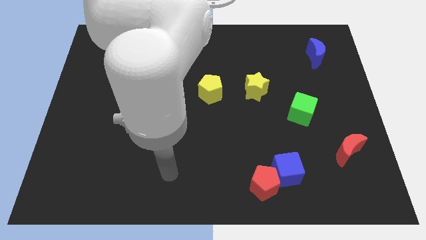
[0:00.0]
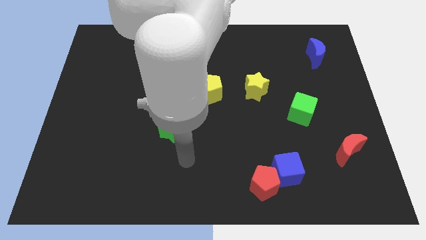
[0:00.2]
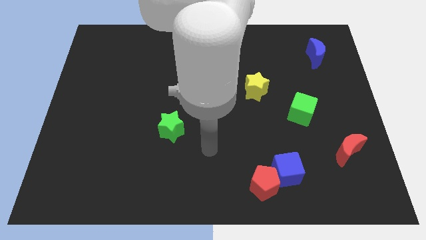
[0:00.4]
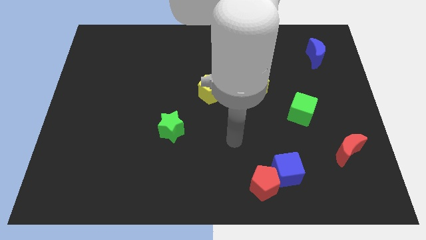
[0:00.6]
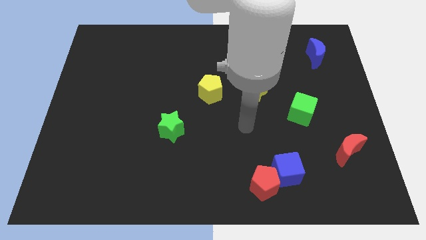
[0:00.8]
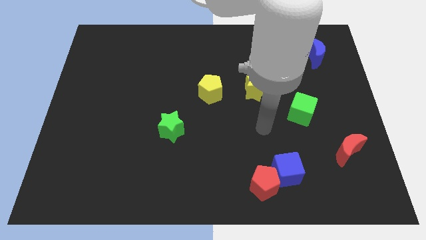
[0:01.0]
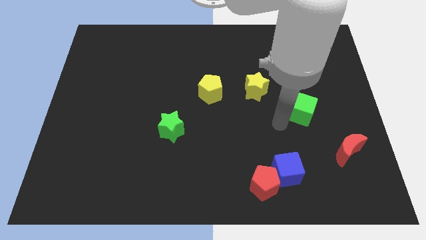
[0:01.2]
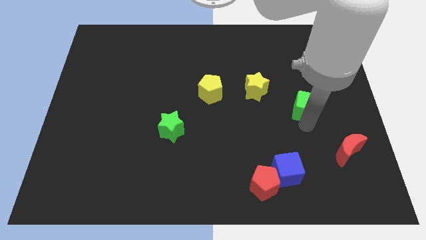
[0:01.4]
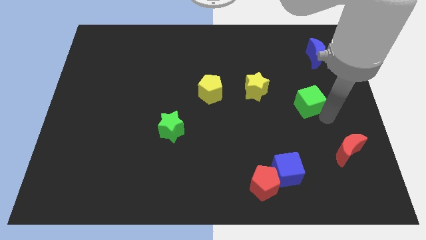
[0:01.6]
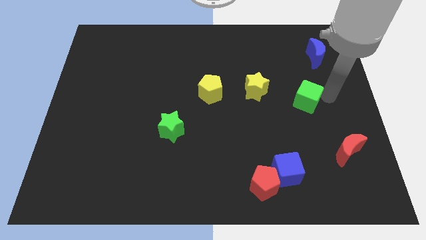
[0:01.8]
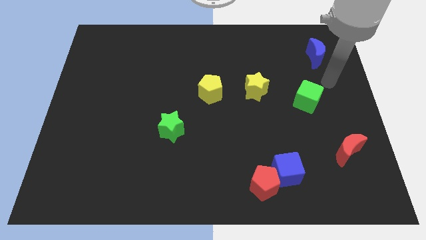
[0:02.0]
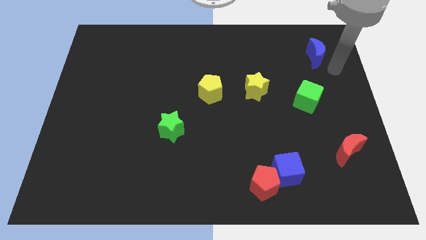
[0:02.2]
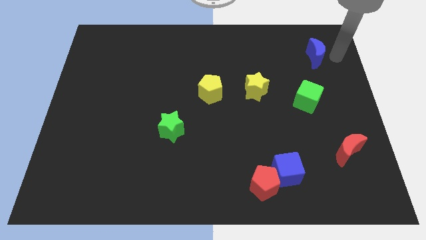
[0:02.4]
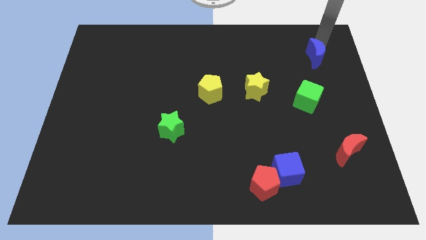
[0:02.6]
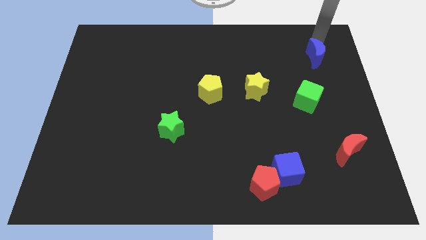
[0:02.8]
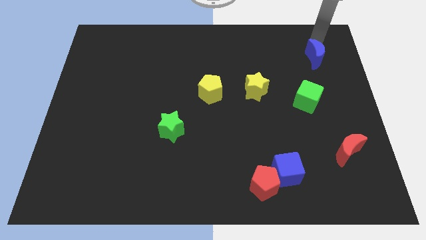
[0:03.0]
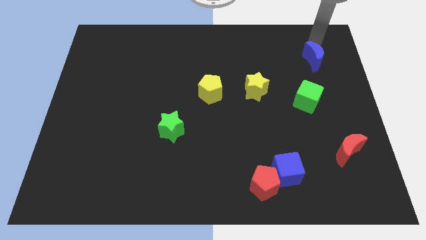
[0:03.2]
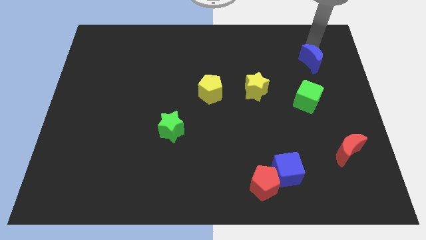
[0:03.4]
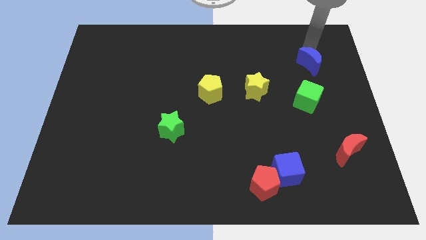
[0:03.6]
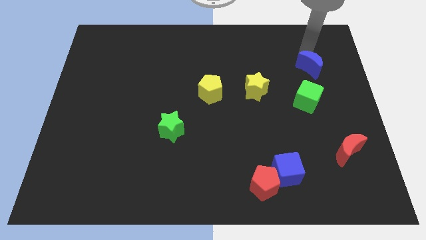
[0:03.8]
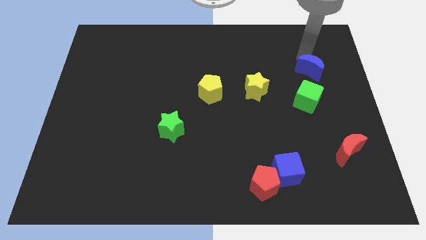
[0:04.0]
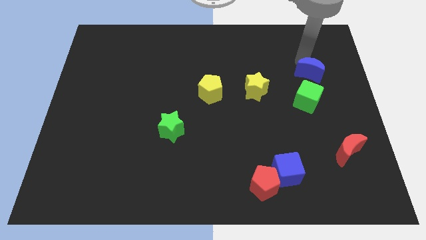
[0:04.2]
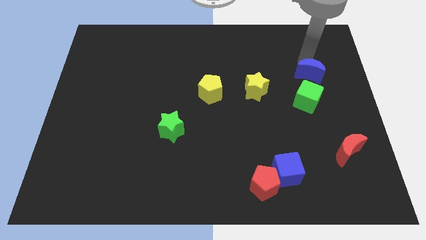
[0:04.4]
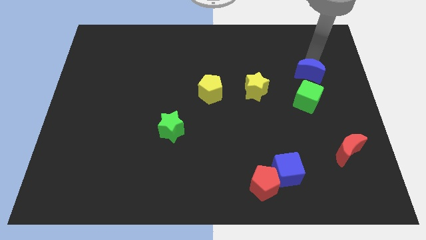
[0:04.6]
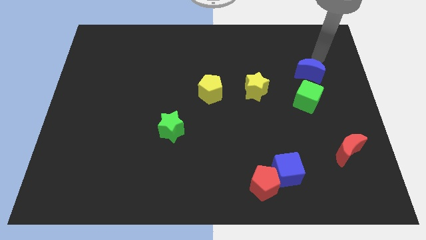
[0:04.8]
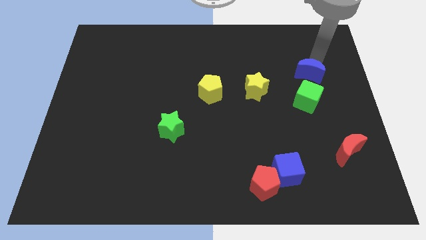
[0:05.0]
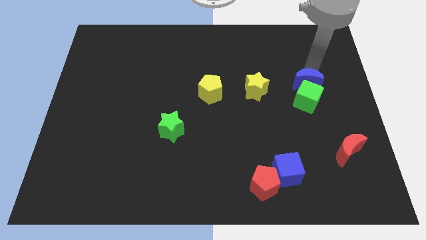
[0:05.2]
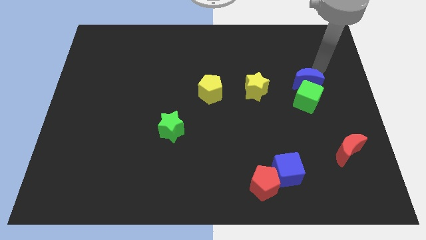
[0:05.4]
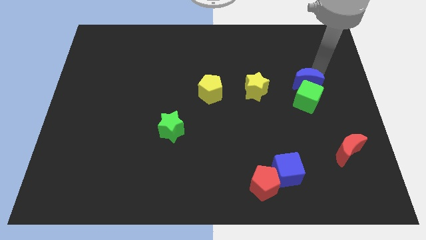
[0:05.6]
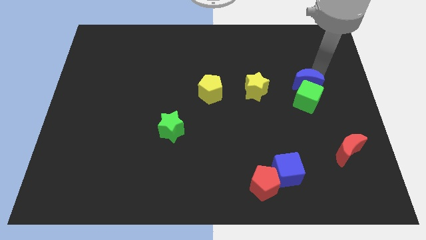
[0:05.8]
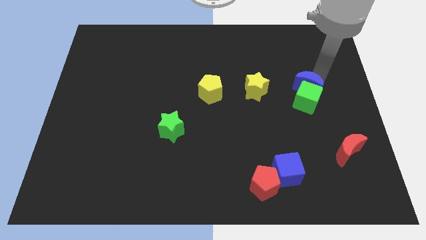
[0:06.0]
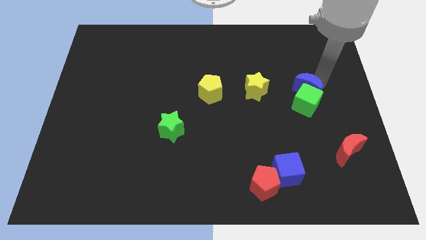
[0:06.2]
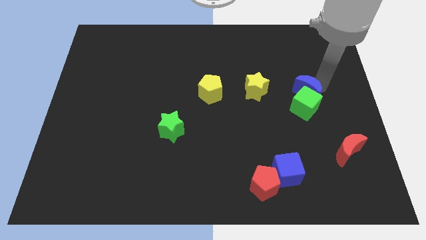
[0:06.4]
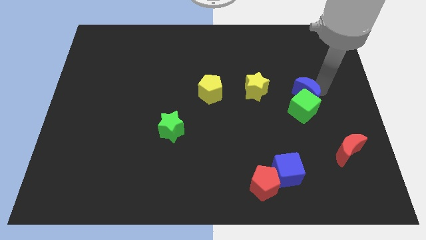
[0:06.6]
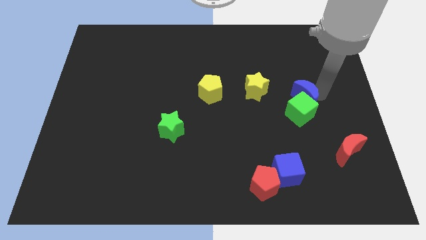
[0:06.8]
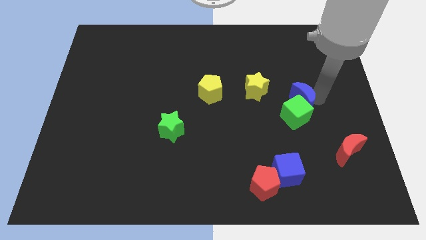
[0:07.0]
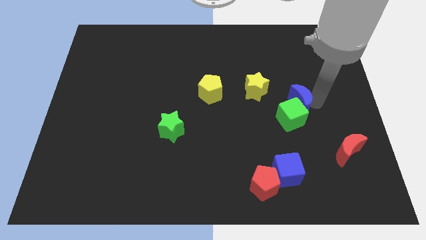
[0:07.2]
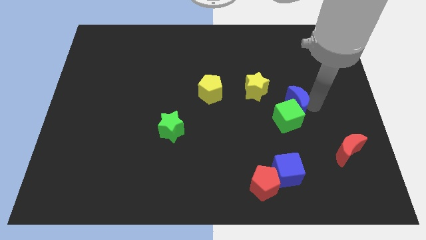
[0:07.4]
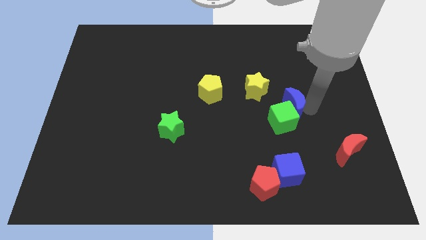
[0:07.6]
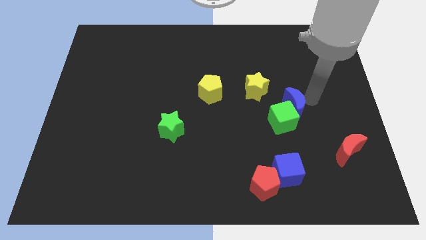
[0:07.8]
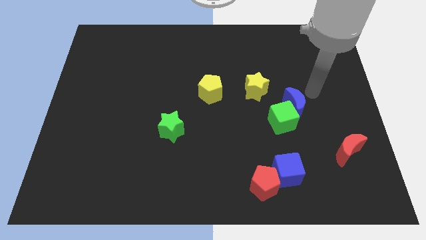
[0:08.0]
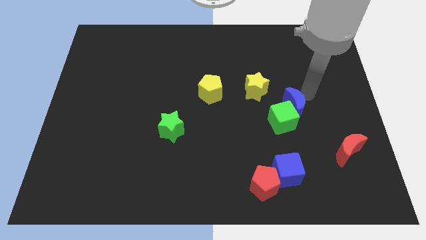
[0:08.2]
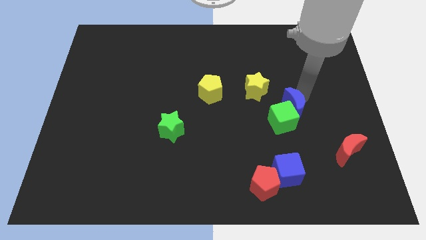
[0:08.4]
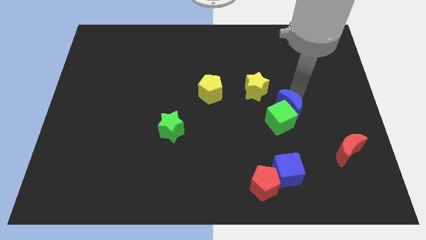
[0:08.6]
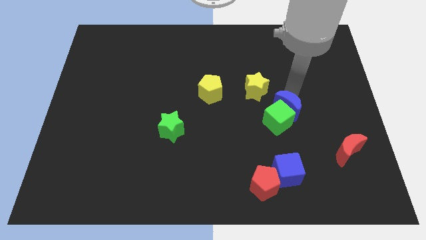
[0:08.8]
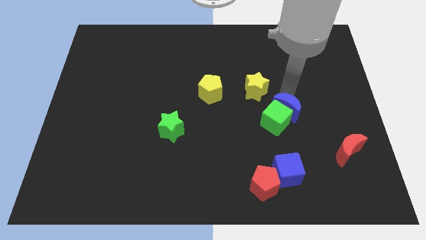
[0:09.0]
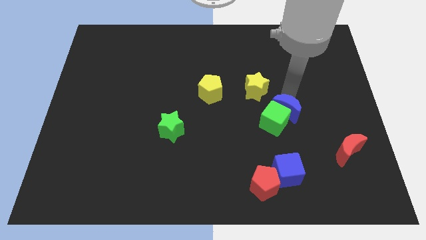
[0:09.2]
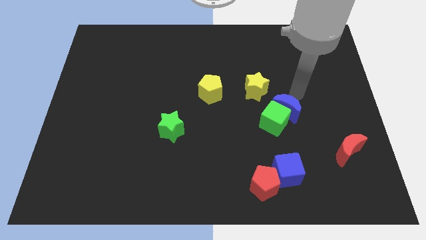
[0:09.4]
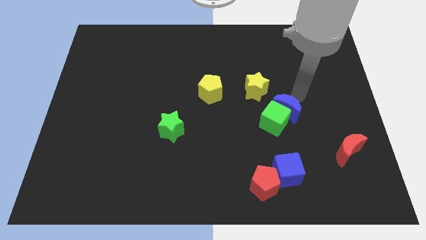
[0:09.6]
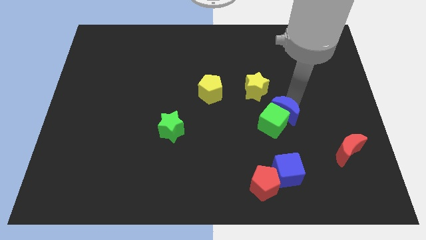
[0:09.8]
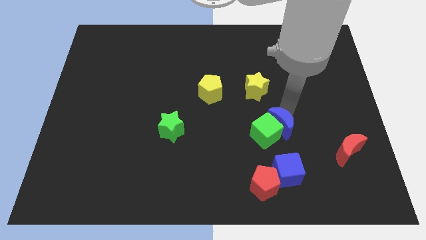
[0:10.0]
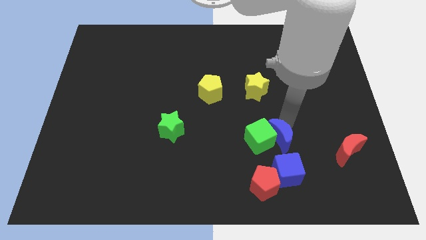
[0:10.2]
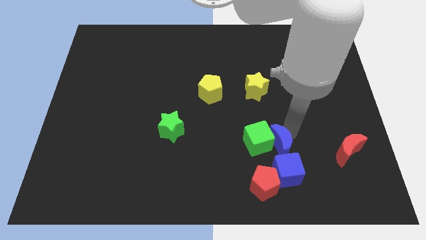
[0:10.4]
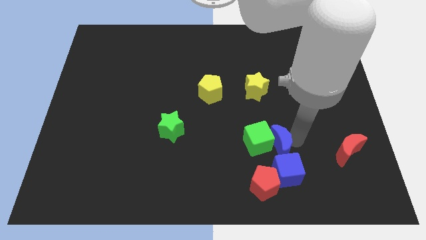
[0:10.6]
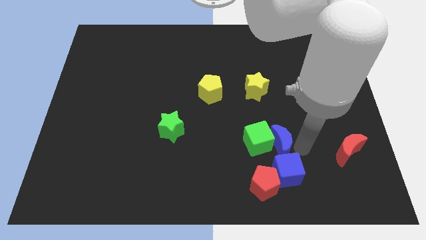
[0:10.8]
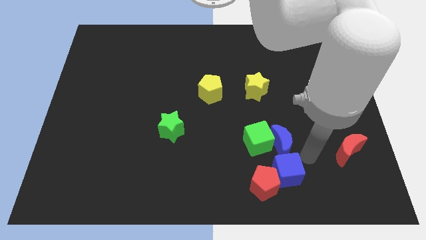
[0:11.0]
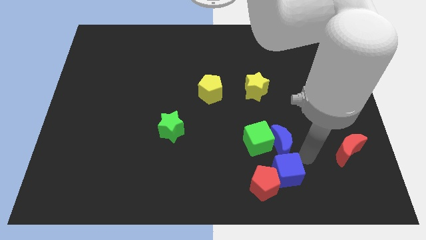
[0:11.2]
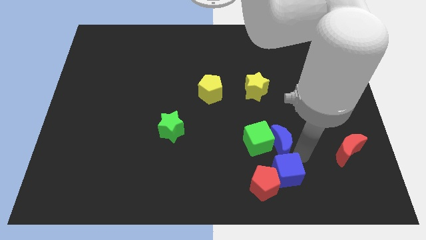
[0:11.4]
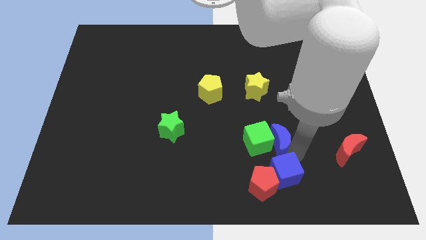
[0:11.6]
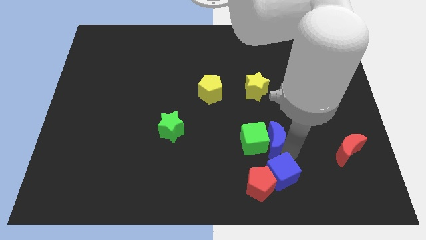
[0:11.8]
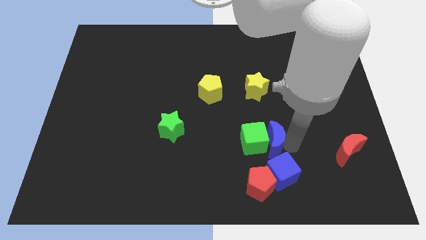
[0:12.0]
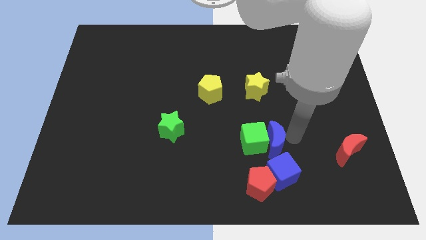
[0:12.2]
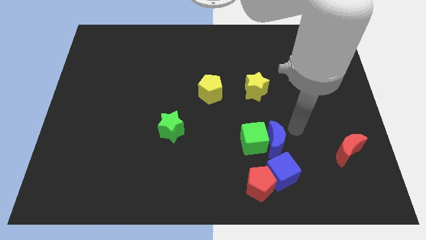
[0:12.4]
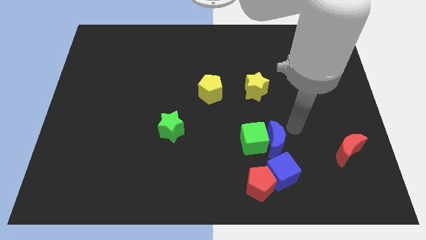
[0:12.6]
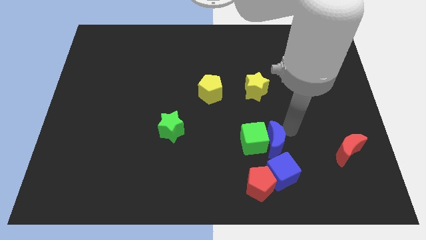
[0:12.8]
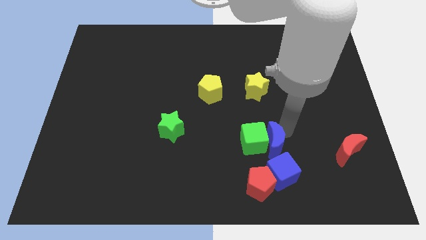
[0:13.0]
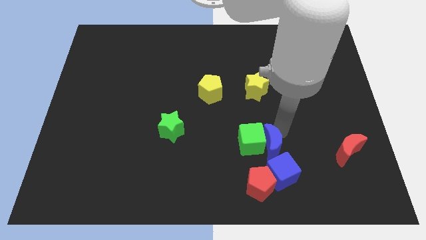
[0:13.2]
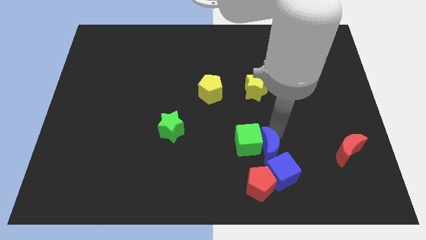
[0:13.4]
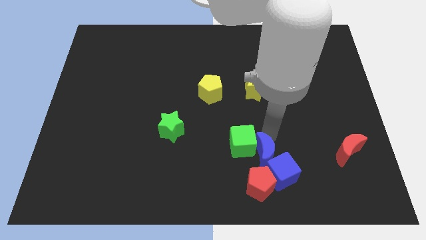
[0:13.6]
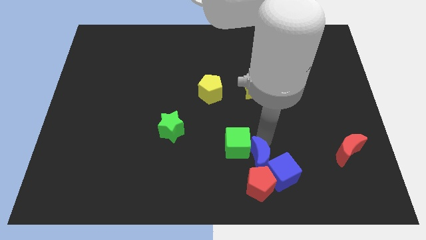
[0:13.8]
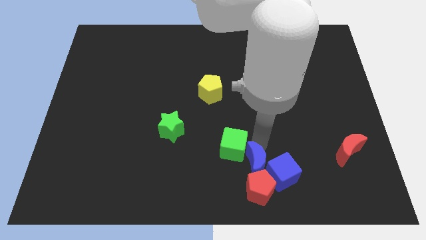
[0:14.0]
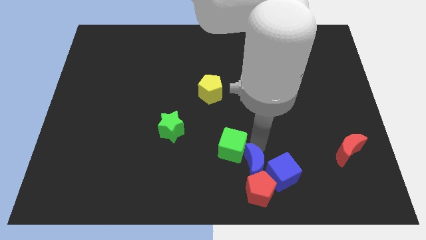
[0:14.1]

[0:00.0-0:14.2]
move the blue moon to the bottom side
